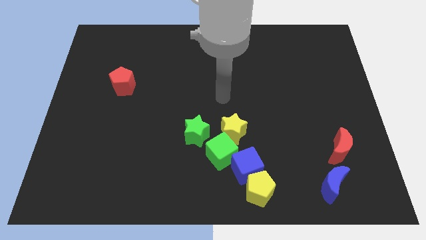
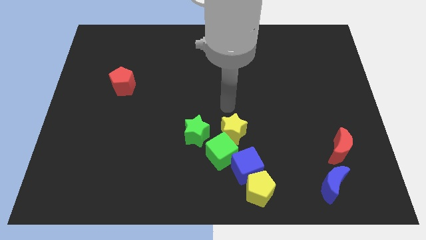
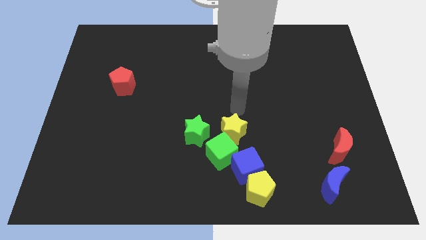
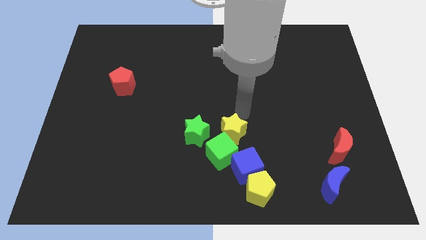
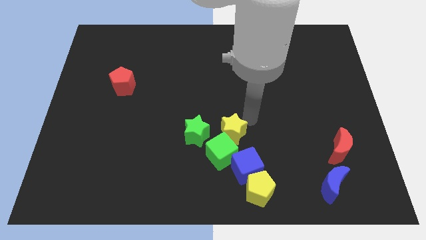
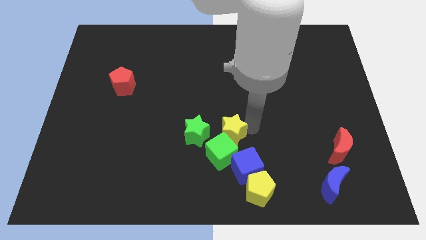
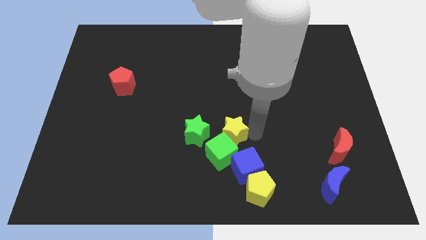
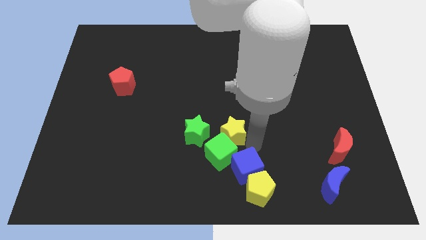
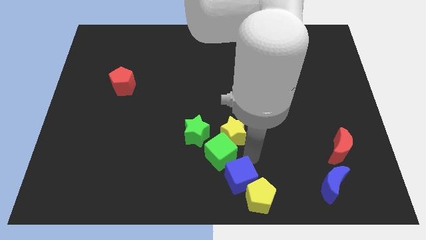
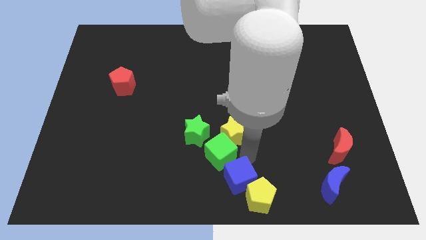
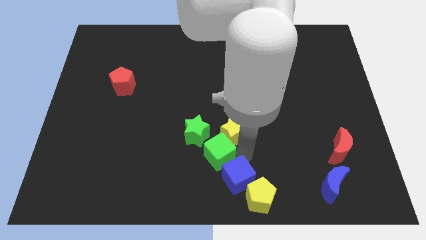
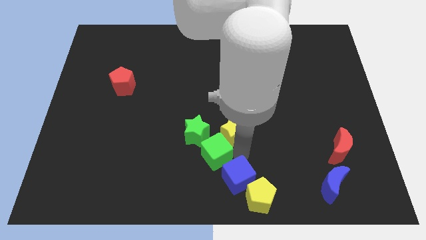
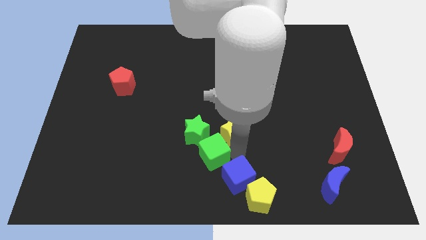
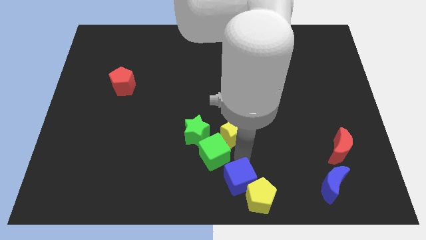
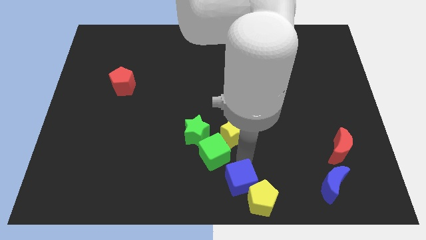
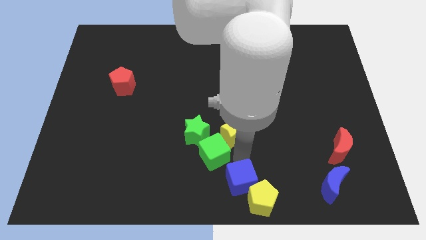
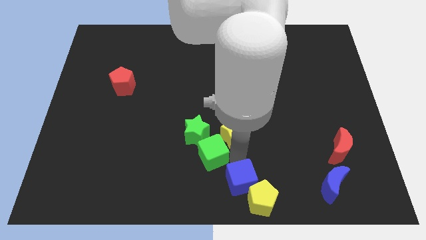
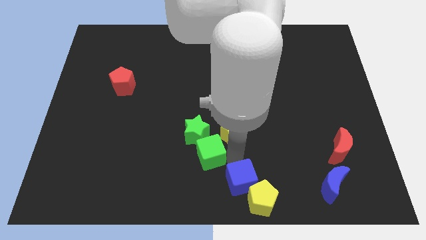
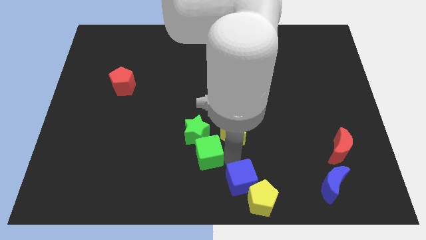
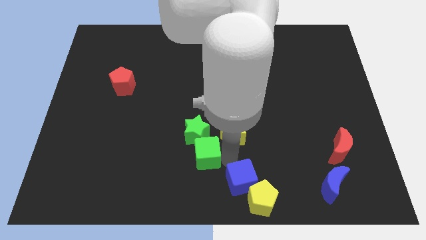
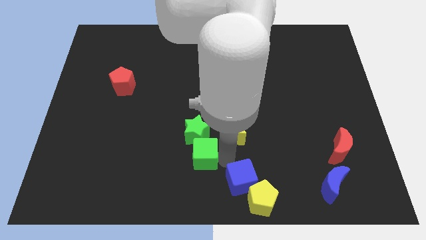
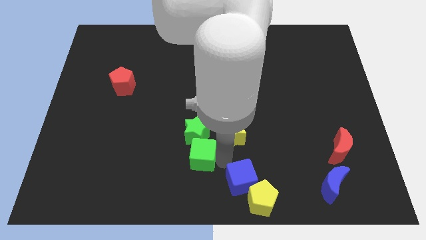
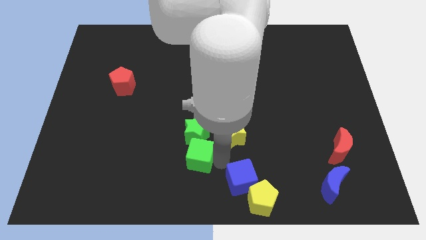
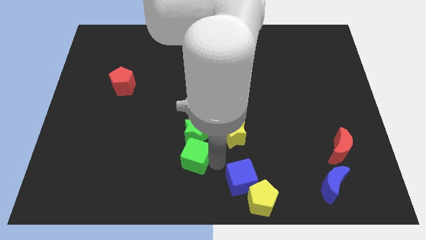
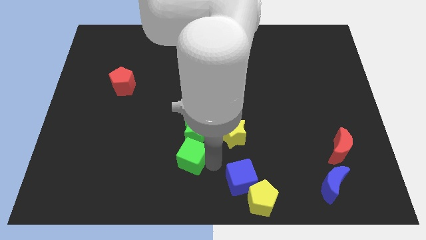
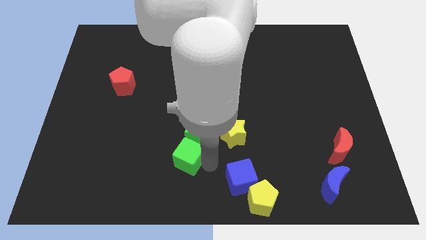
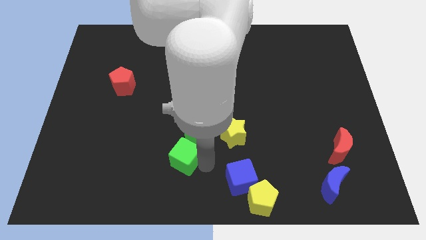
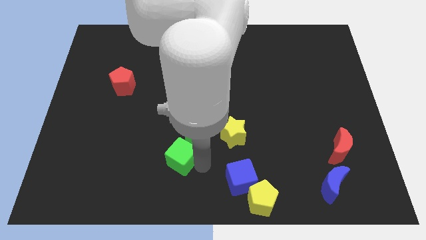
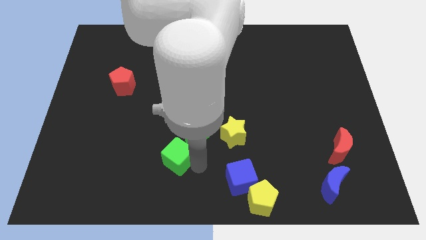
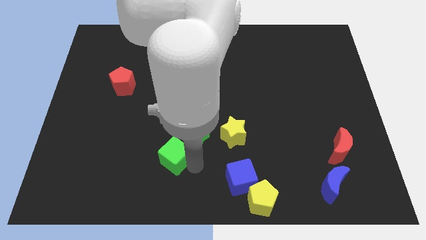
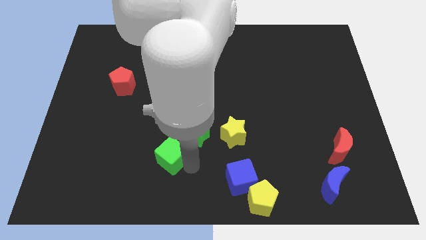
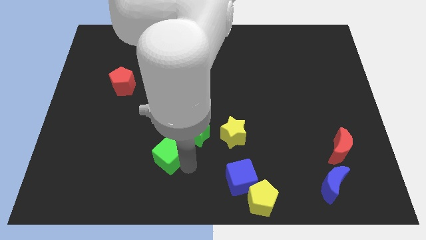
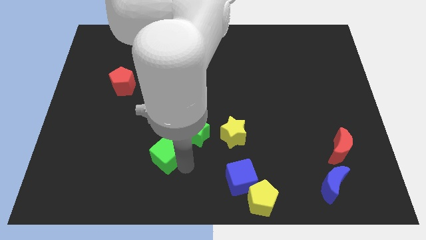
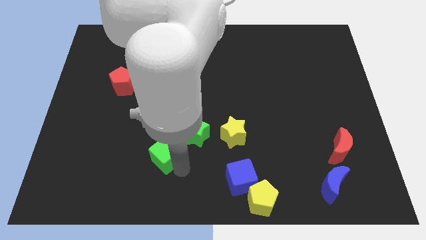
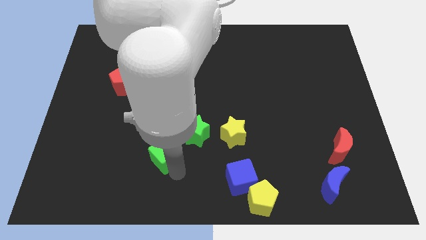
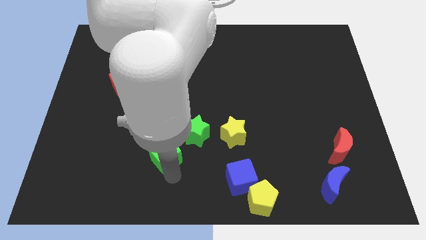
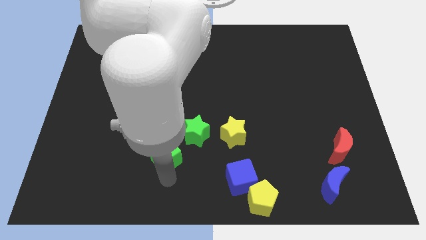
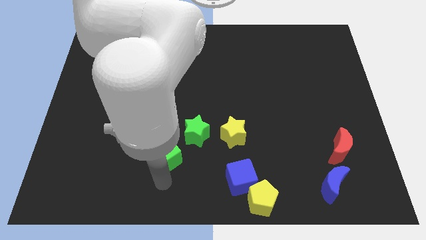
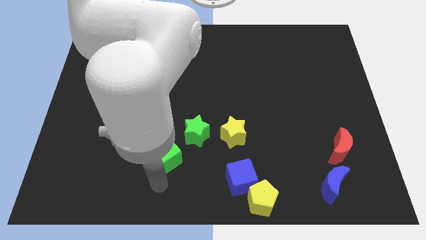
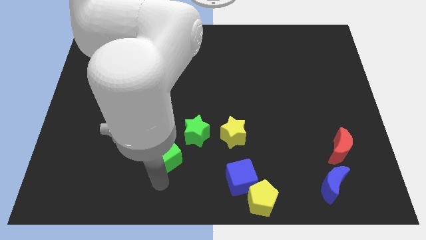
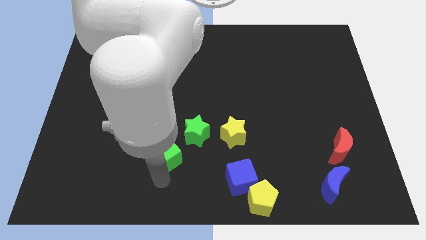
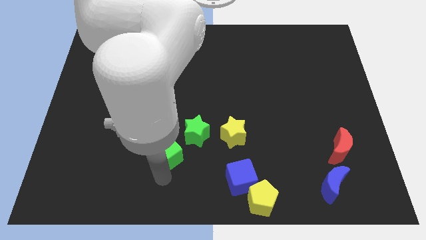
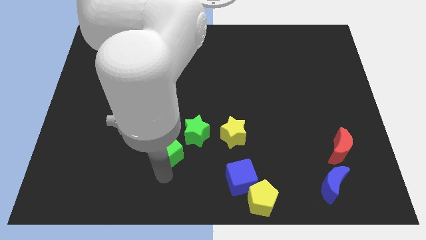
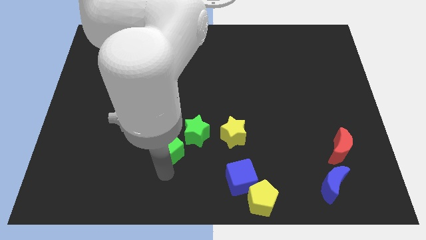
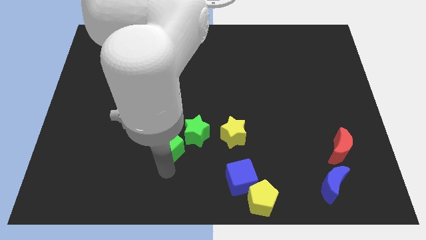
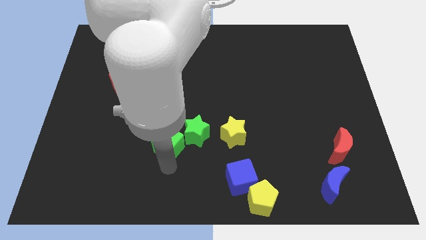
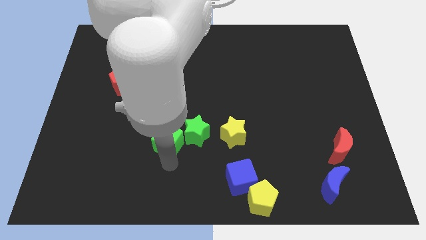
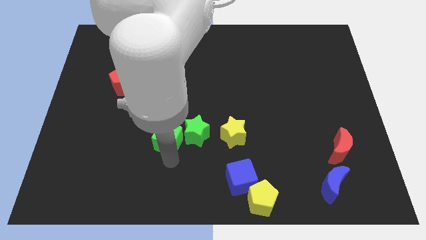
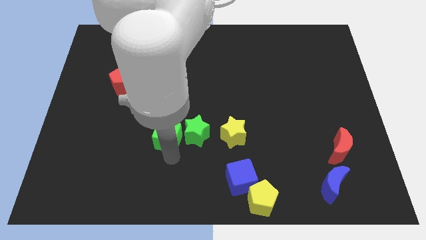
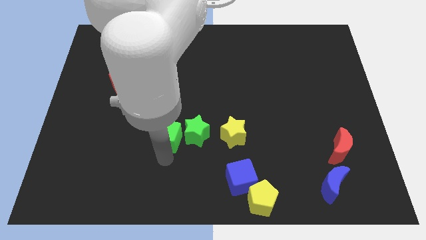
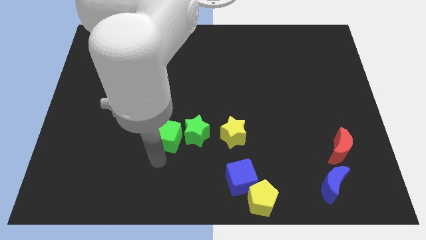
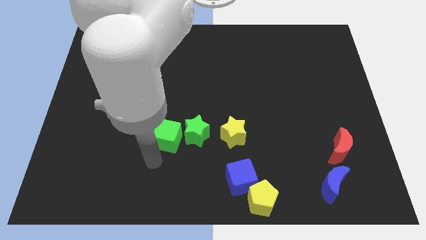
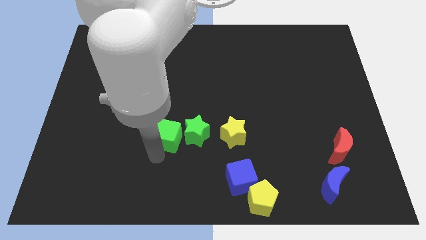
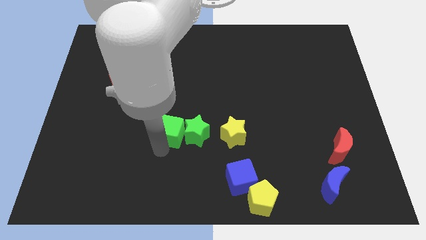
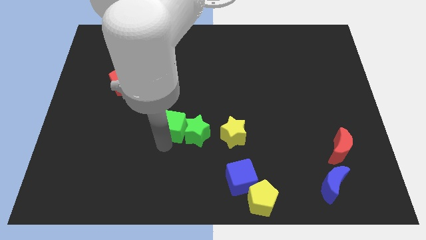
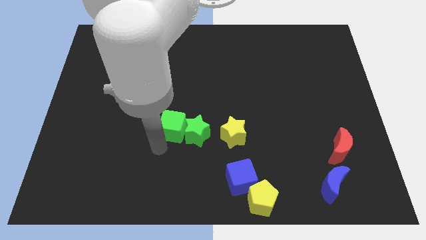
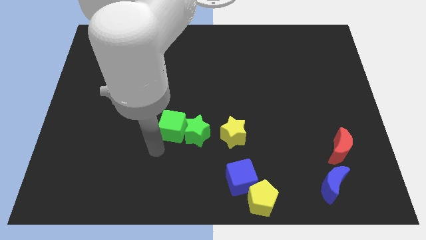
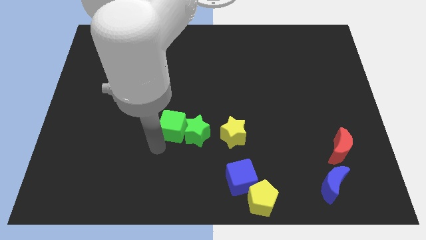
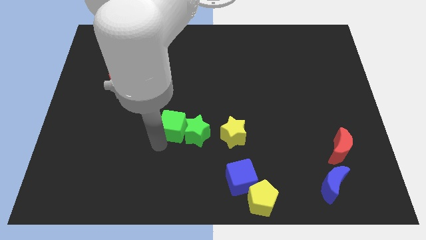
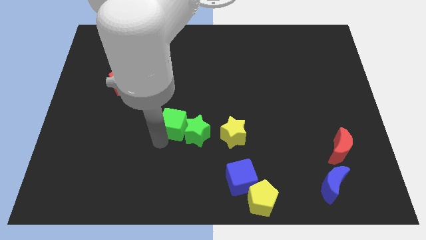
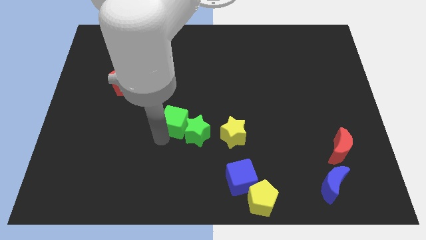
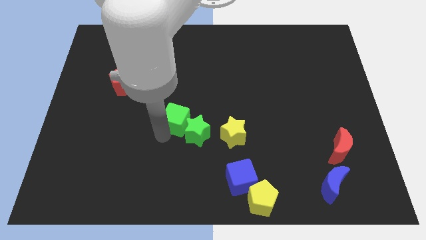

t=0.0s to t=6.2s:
move the green cube to the top side of the green star

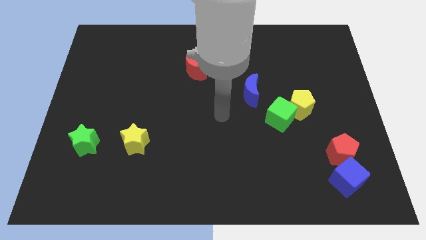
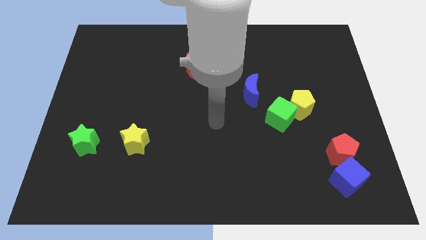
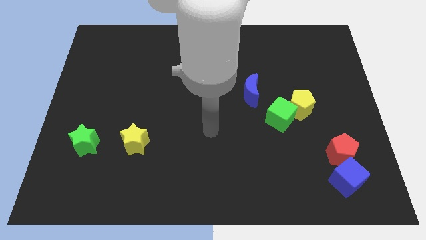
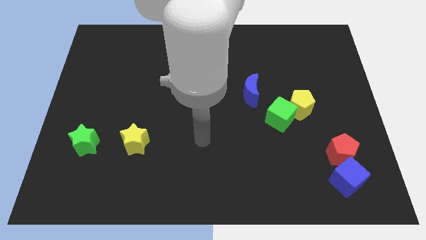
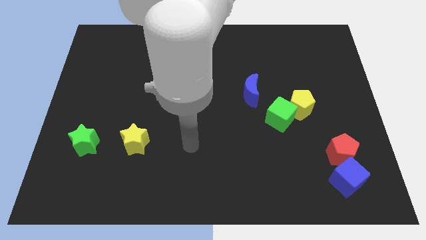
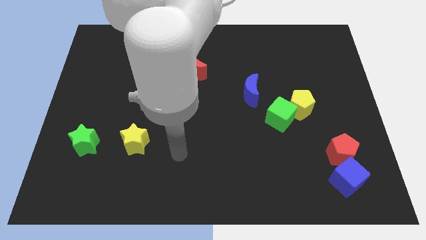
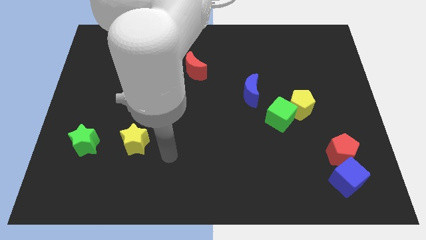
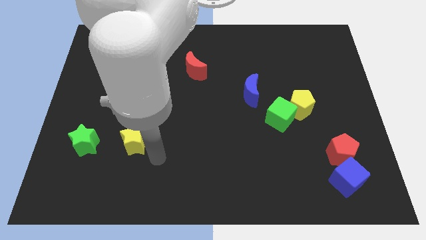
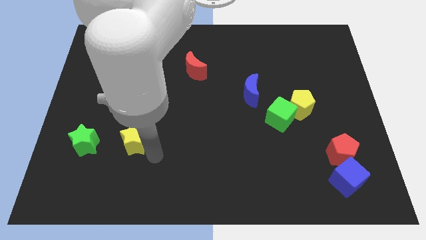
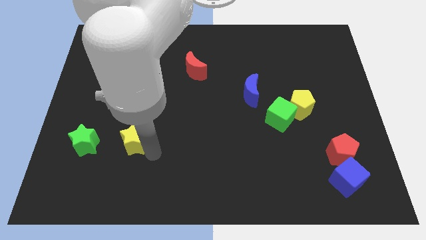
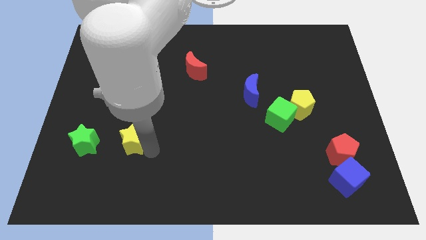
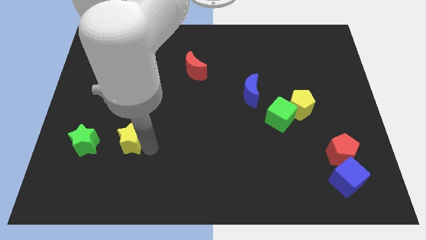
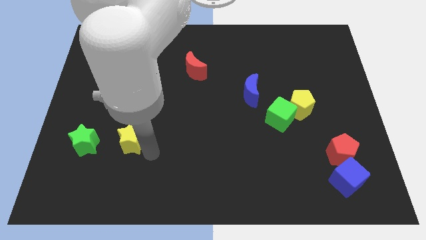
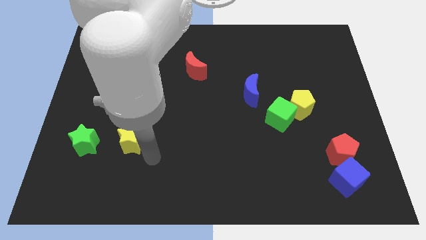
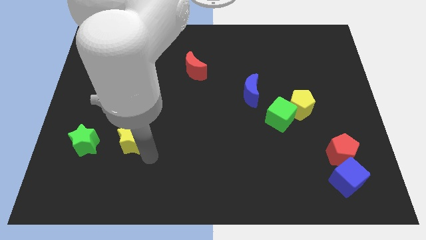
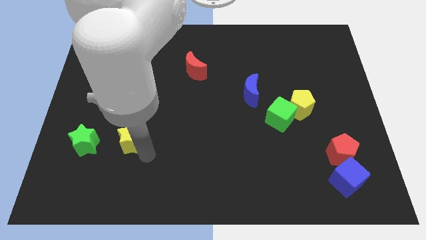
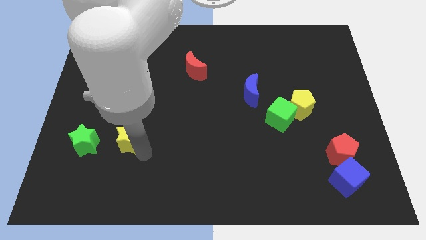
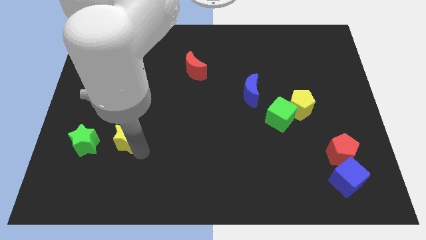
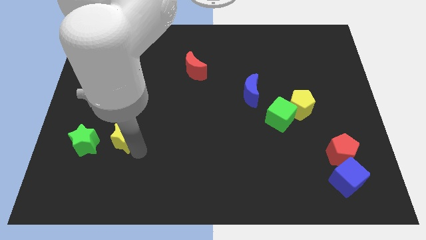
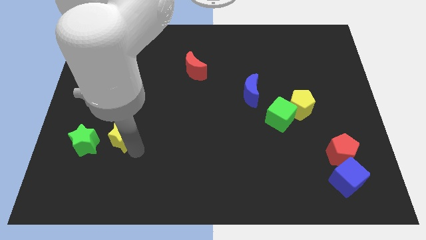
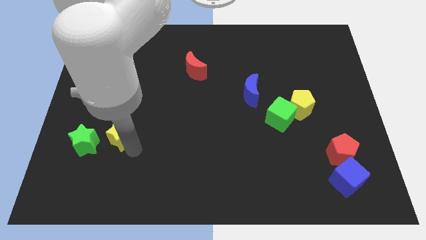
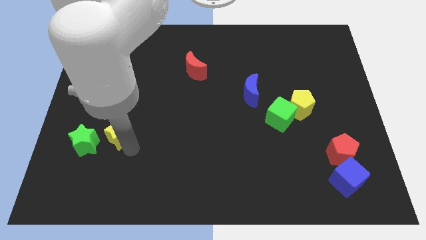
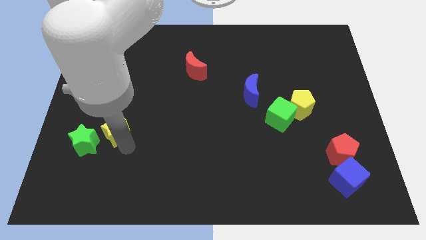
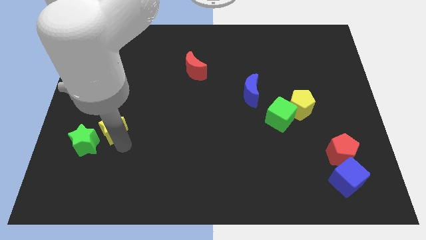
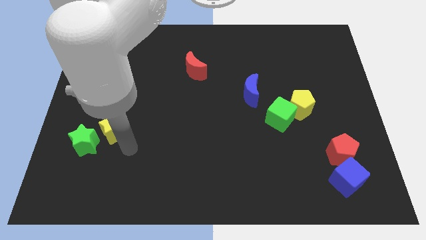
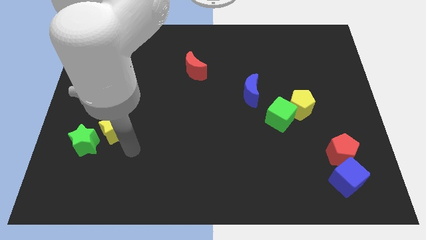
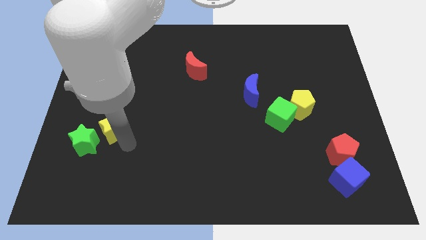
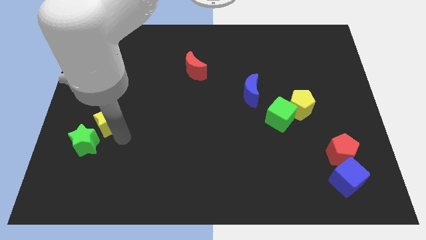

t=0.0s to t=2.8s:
move the yellow star to the top of the green star
